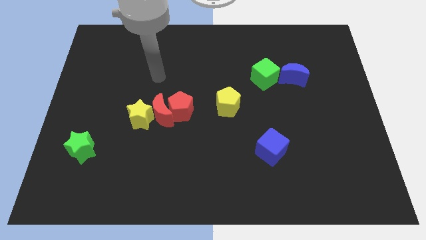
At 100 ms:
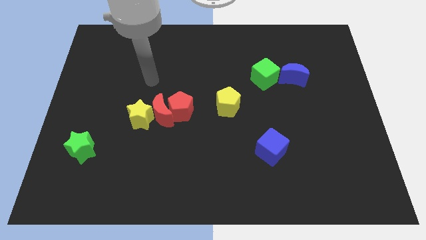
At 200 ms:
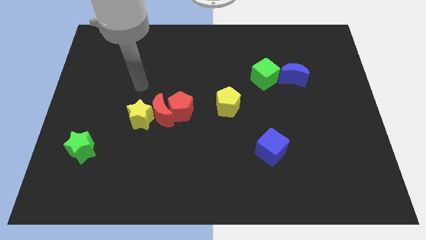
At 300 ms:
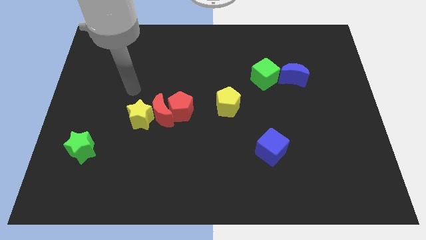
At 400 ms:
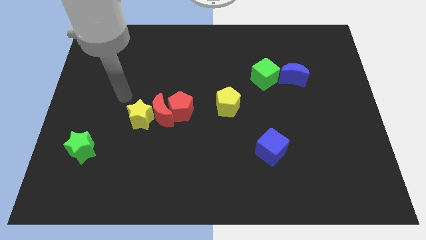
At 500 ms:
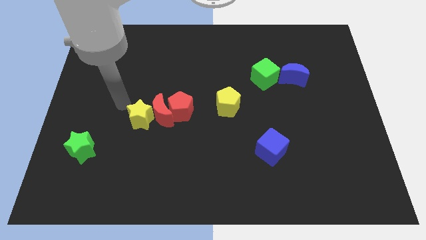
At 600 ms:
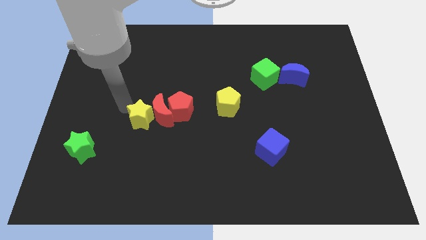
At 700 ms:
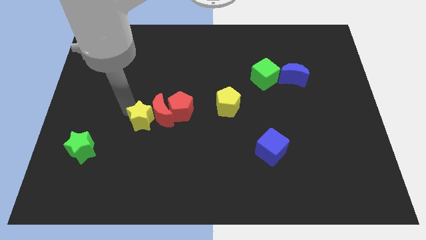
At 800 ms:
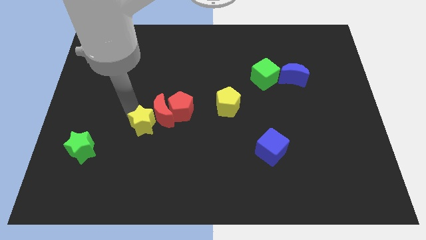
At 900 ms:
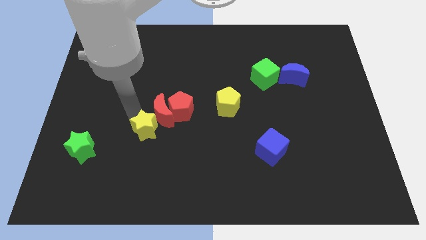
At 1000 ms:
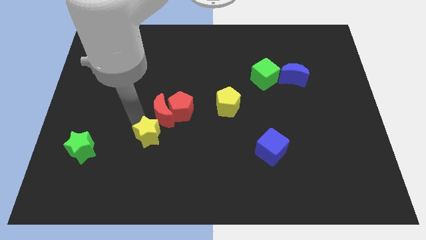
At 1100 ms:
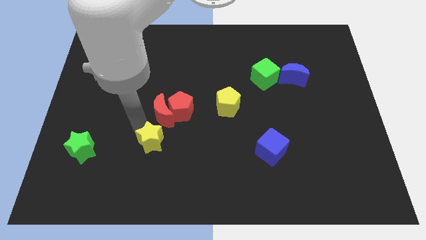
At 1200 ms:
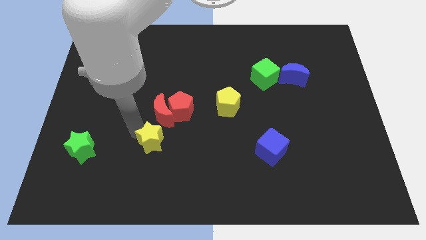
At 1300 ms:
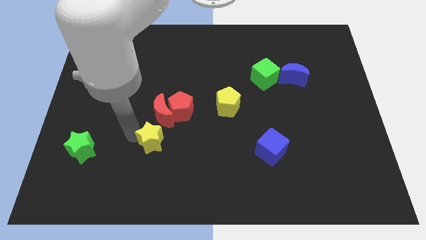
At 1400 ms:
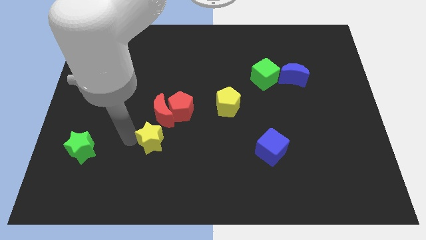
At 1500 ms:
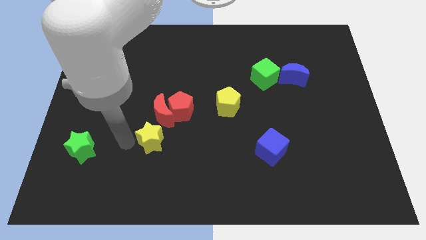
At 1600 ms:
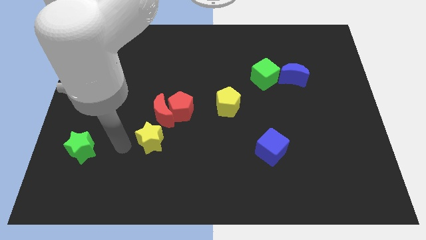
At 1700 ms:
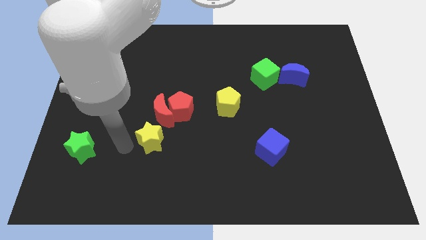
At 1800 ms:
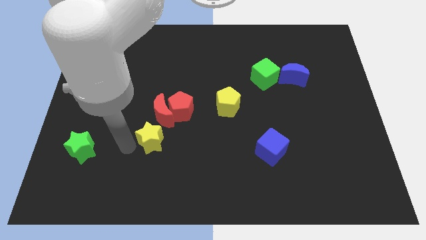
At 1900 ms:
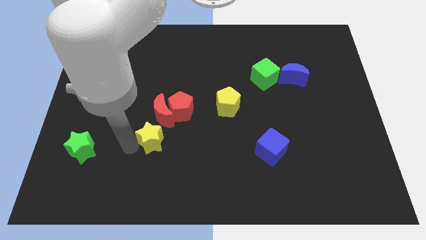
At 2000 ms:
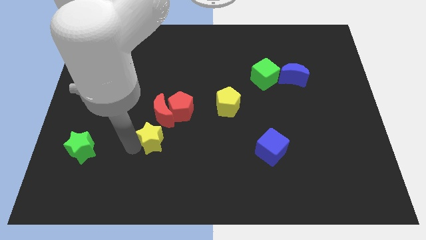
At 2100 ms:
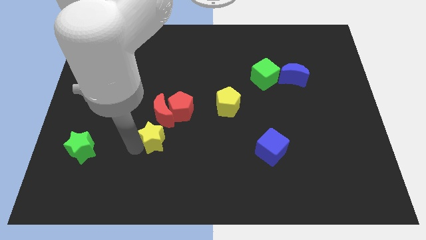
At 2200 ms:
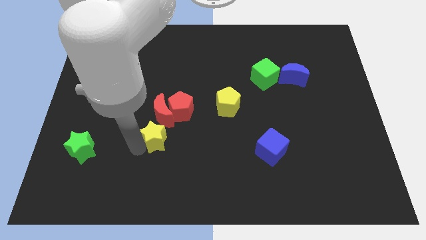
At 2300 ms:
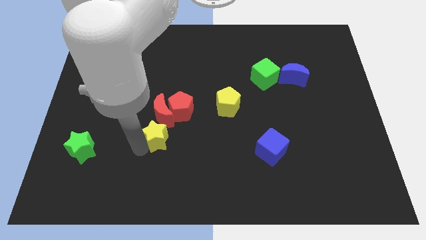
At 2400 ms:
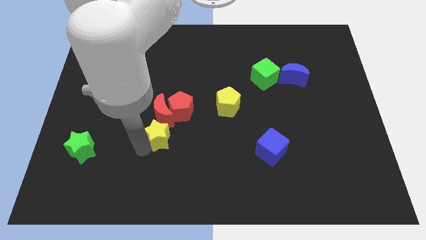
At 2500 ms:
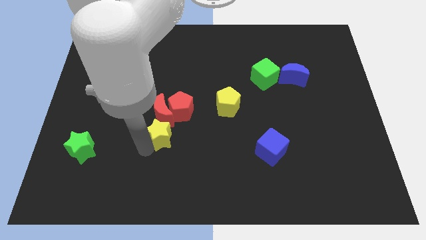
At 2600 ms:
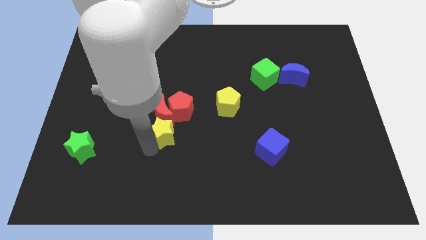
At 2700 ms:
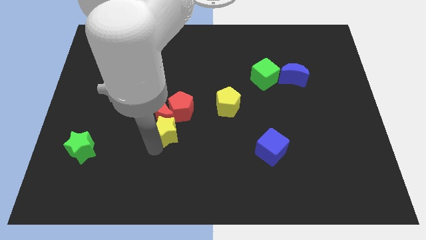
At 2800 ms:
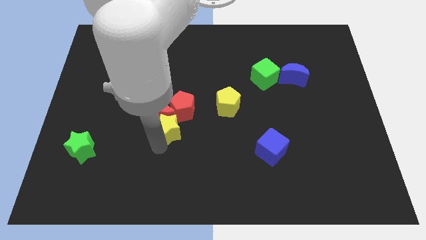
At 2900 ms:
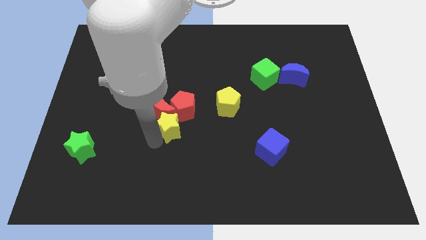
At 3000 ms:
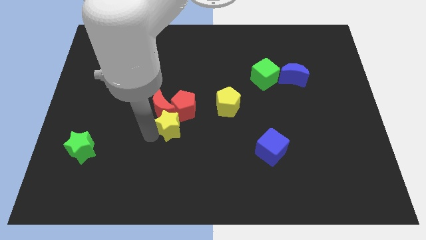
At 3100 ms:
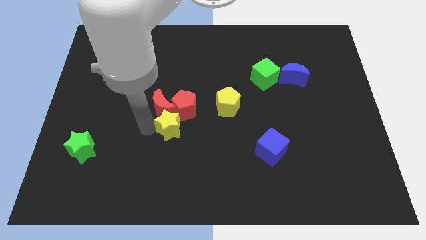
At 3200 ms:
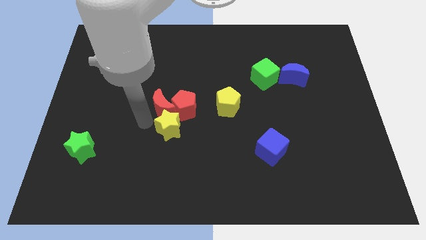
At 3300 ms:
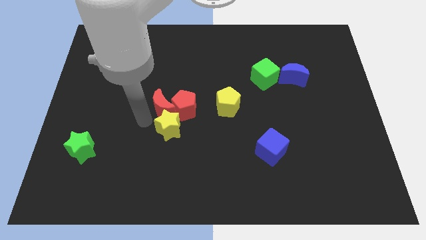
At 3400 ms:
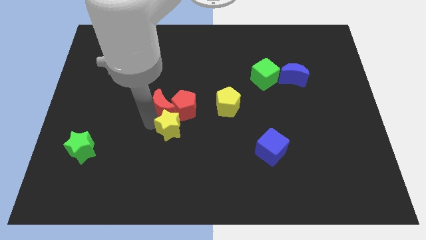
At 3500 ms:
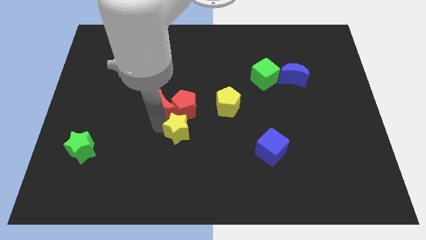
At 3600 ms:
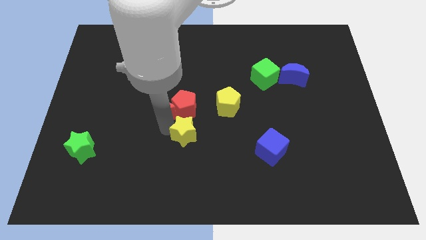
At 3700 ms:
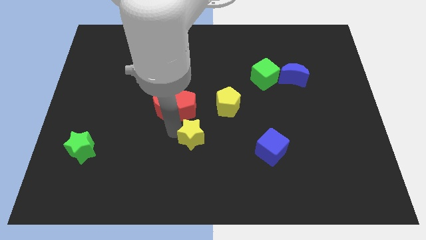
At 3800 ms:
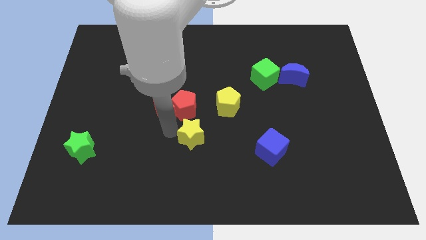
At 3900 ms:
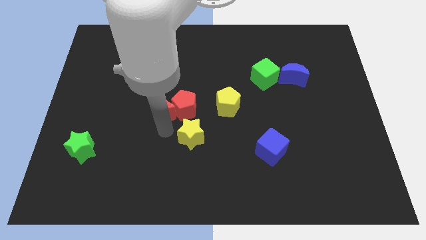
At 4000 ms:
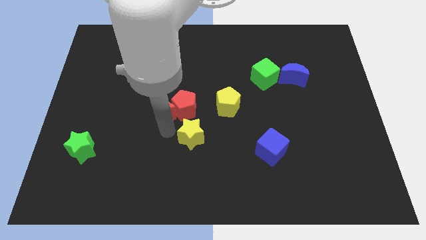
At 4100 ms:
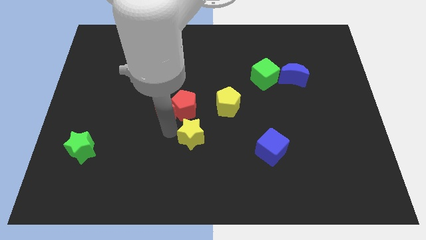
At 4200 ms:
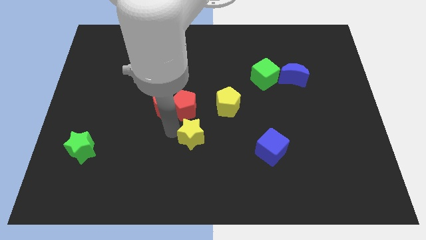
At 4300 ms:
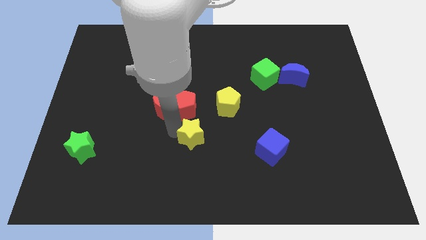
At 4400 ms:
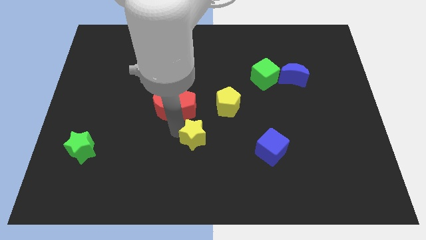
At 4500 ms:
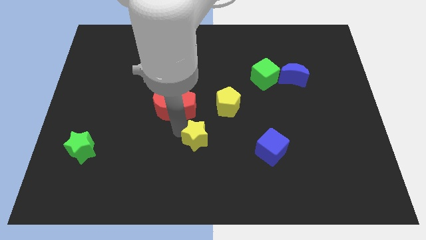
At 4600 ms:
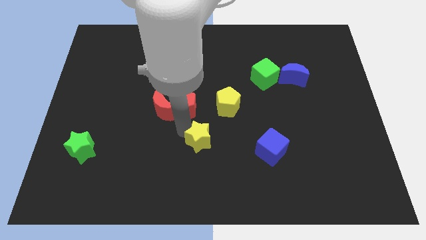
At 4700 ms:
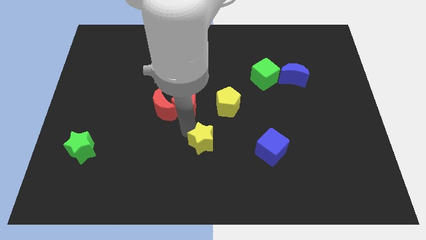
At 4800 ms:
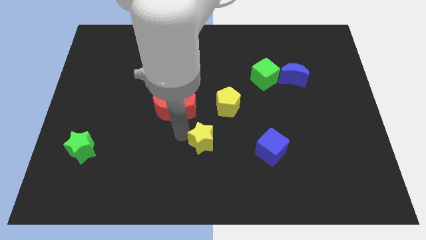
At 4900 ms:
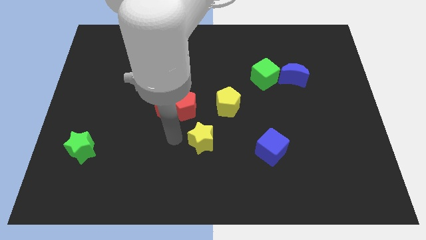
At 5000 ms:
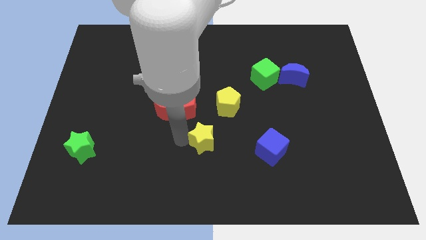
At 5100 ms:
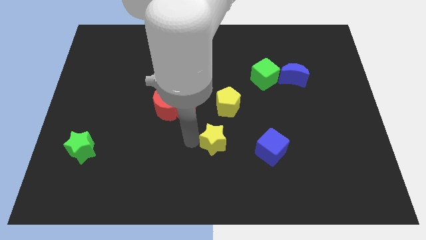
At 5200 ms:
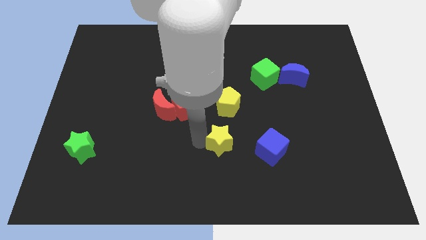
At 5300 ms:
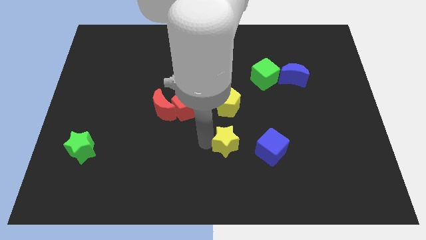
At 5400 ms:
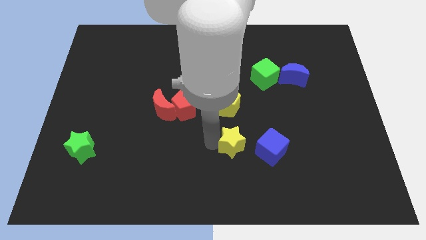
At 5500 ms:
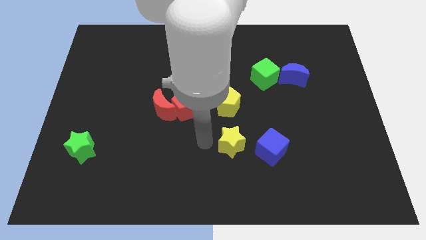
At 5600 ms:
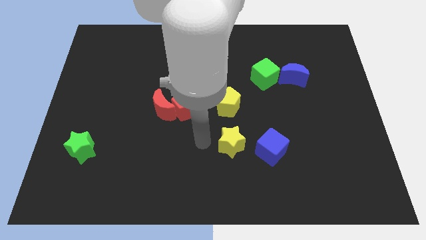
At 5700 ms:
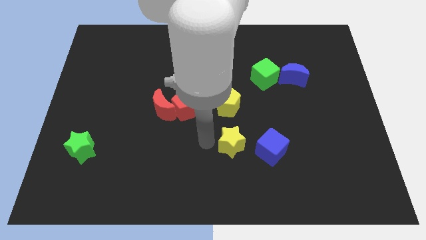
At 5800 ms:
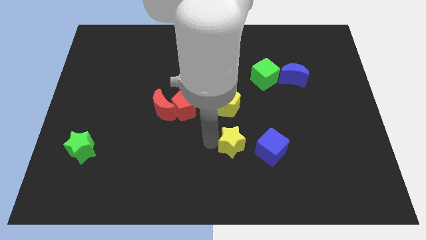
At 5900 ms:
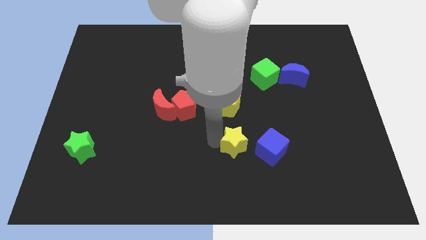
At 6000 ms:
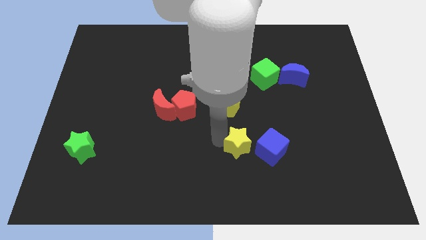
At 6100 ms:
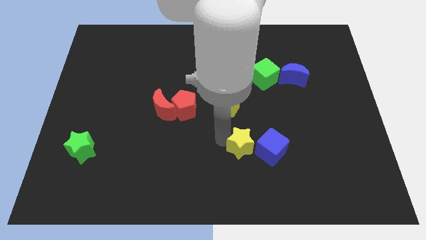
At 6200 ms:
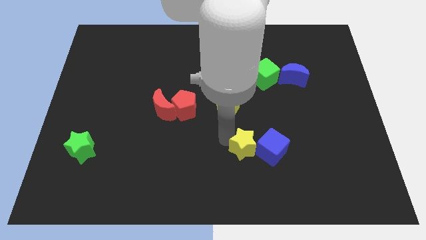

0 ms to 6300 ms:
move the yellow star close to the blue cube

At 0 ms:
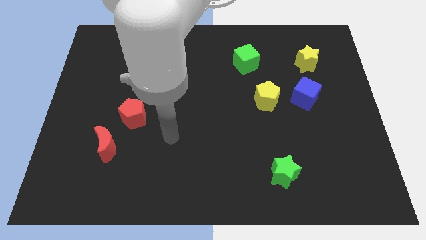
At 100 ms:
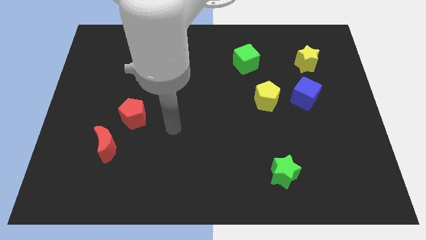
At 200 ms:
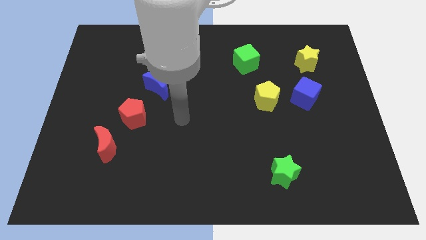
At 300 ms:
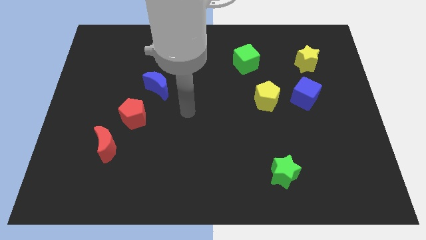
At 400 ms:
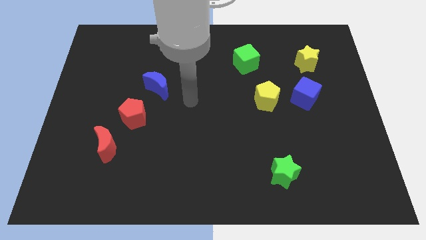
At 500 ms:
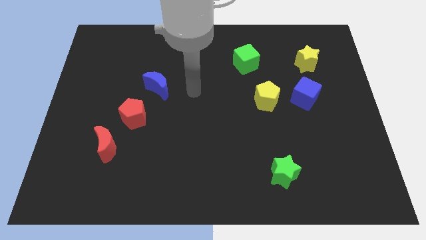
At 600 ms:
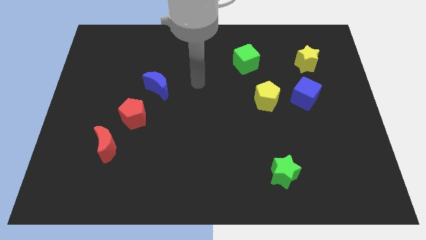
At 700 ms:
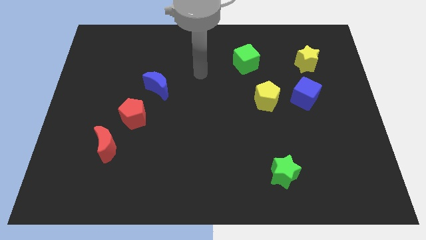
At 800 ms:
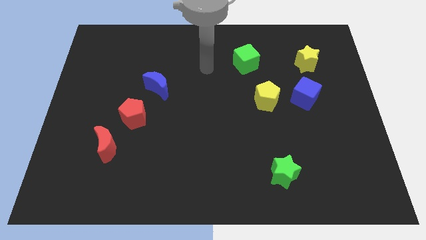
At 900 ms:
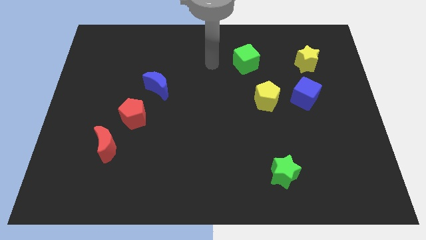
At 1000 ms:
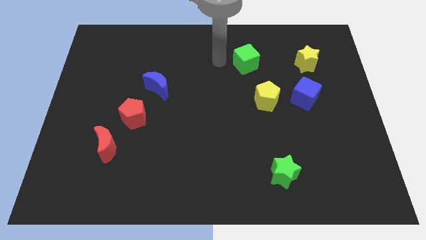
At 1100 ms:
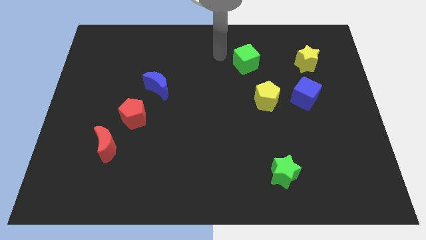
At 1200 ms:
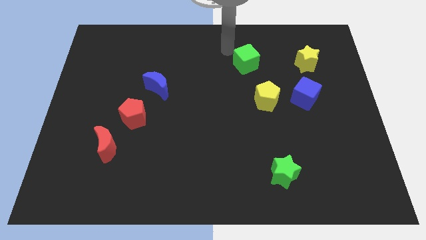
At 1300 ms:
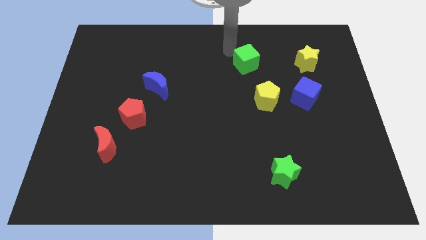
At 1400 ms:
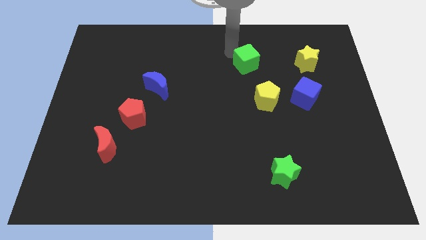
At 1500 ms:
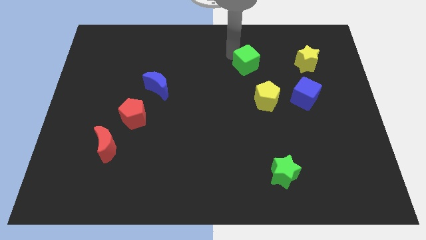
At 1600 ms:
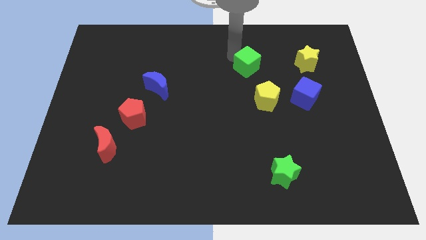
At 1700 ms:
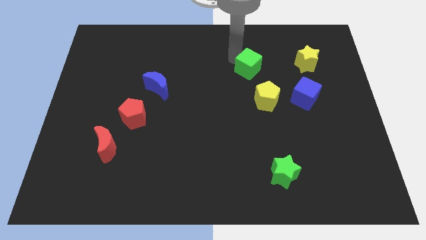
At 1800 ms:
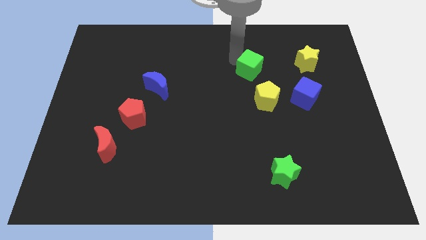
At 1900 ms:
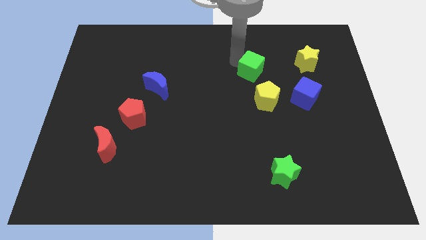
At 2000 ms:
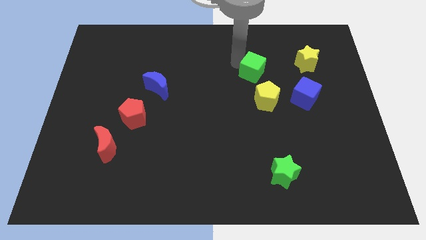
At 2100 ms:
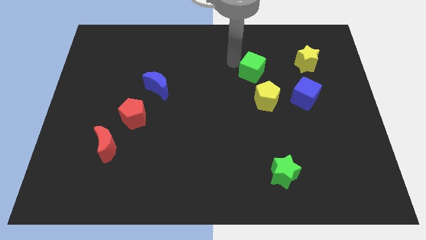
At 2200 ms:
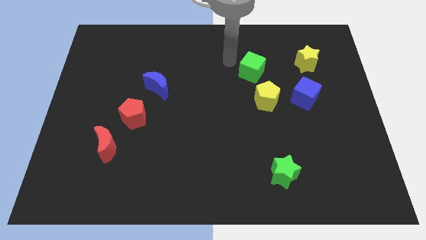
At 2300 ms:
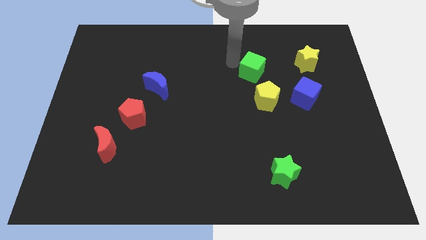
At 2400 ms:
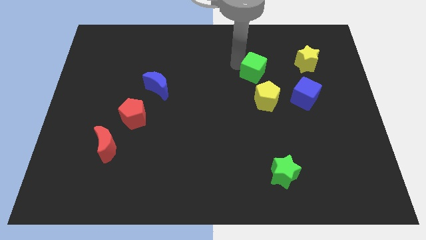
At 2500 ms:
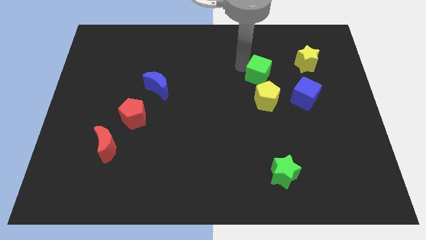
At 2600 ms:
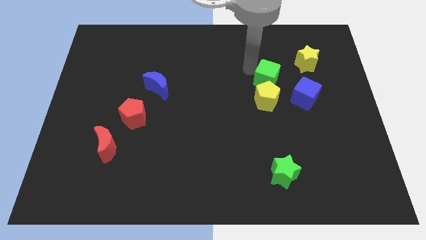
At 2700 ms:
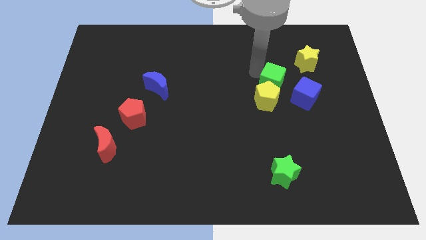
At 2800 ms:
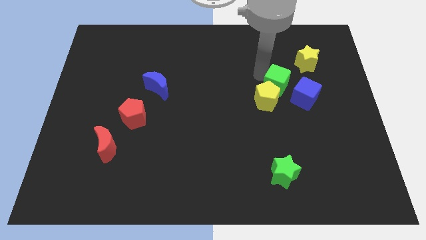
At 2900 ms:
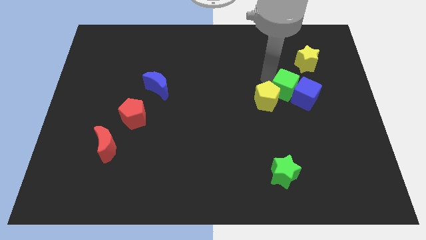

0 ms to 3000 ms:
slide the green cube close to the blue cube
